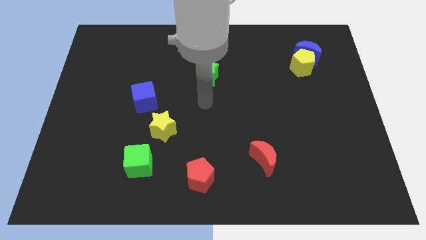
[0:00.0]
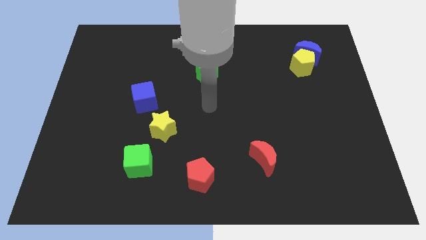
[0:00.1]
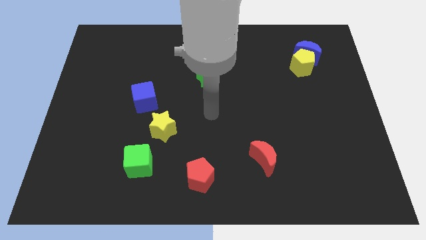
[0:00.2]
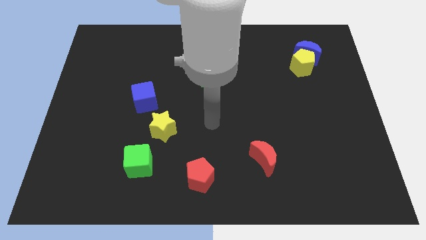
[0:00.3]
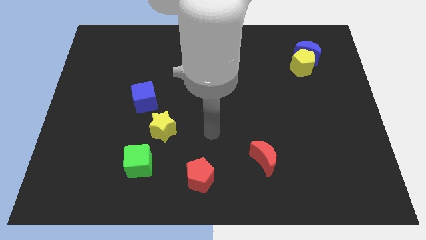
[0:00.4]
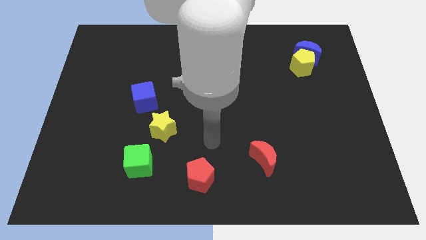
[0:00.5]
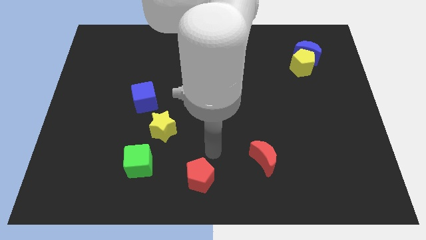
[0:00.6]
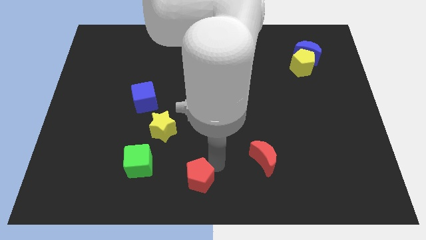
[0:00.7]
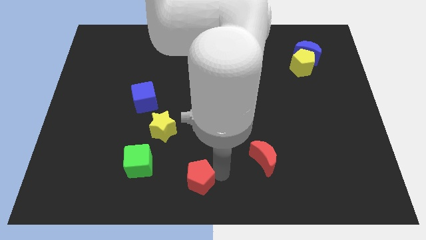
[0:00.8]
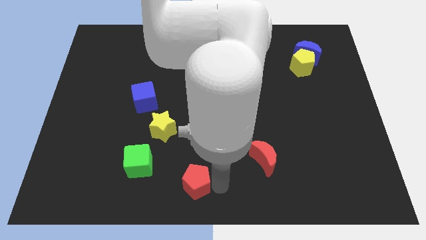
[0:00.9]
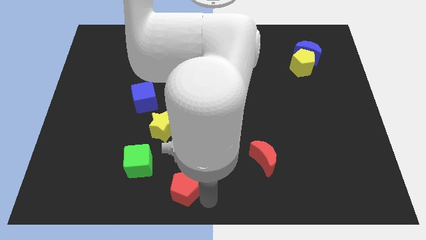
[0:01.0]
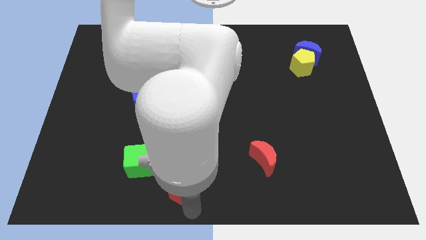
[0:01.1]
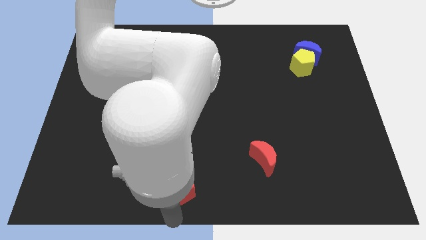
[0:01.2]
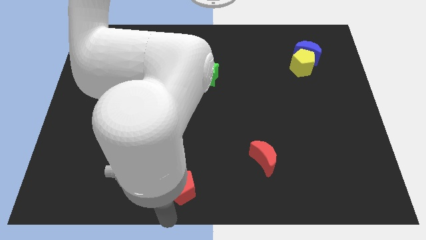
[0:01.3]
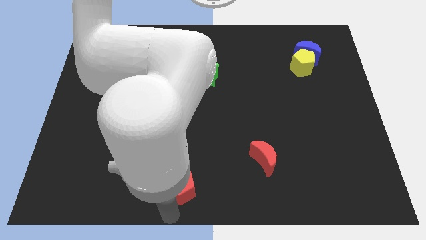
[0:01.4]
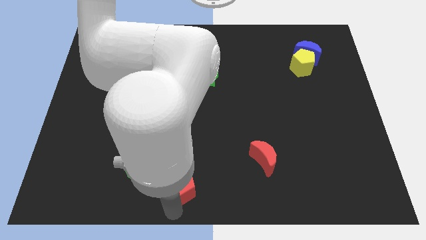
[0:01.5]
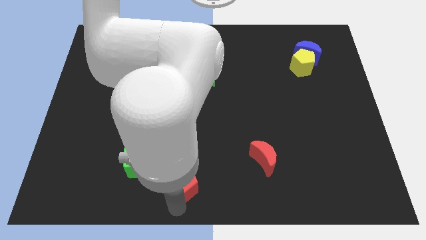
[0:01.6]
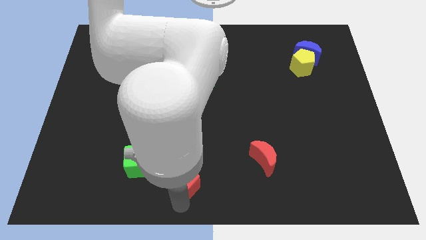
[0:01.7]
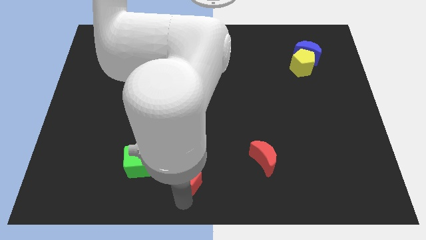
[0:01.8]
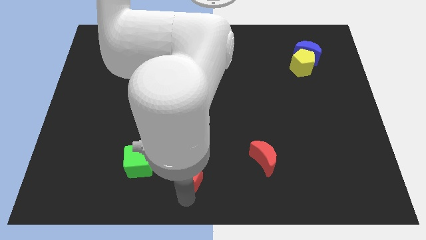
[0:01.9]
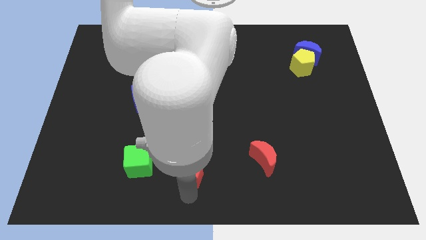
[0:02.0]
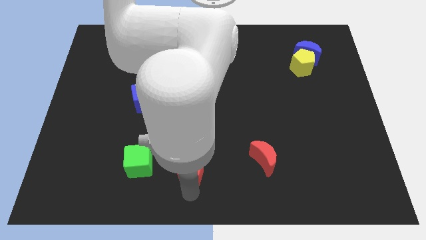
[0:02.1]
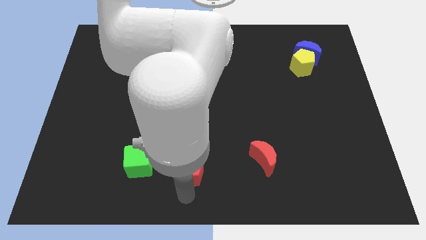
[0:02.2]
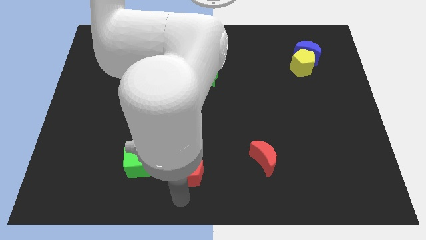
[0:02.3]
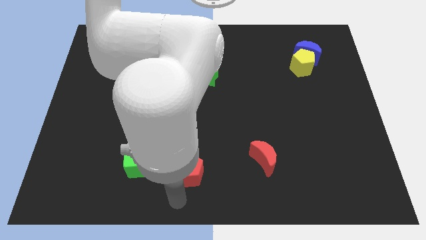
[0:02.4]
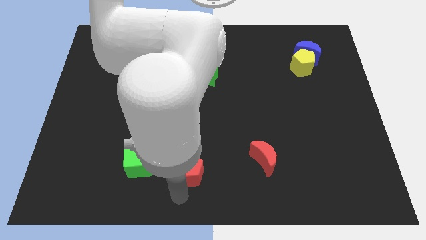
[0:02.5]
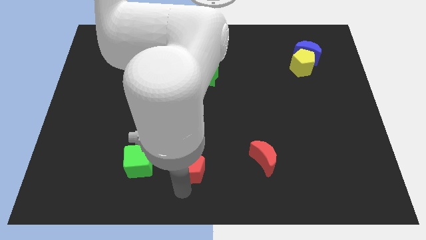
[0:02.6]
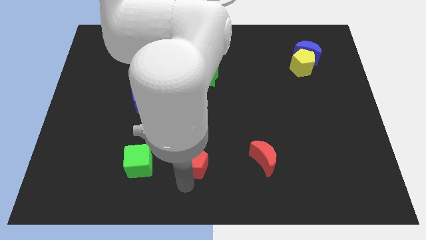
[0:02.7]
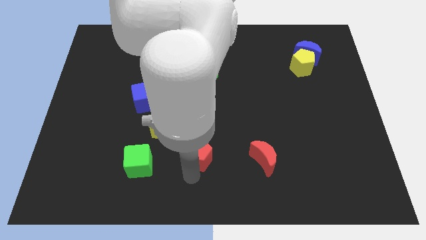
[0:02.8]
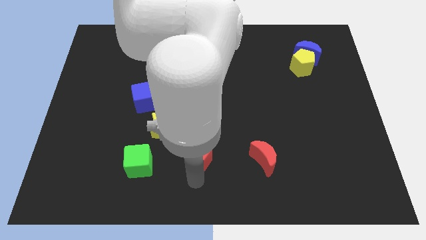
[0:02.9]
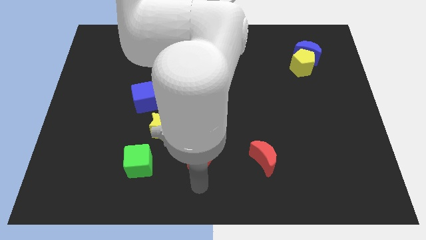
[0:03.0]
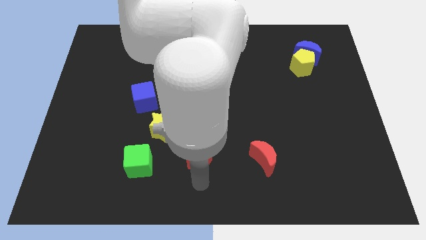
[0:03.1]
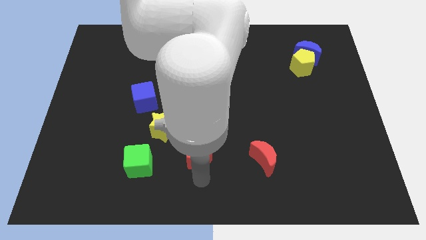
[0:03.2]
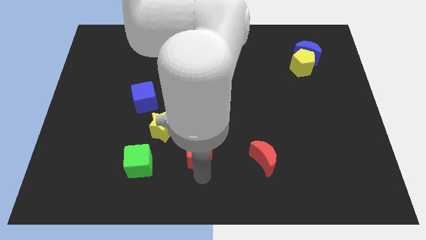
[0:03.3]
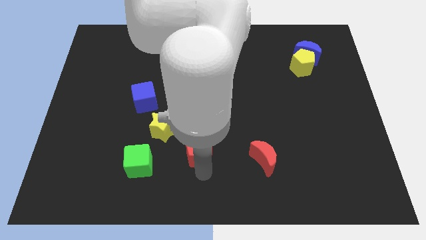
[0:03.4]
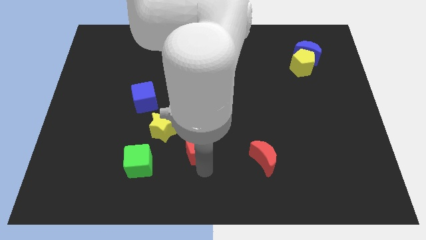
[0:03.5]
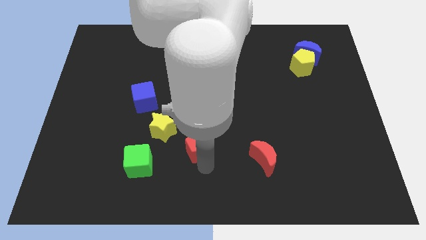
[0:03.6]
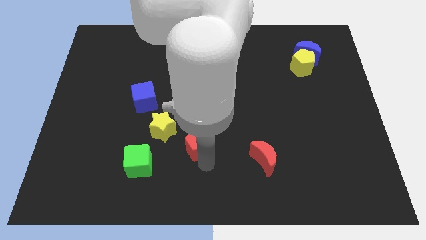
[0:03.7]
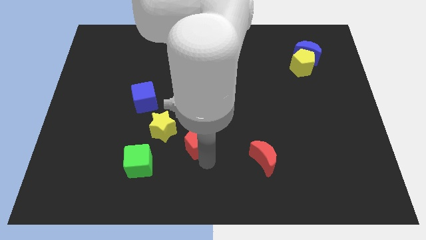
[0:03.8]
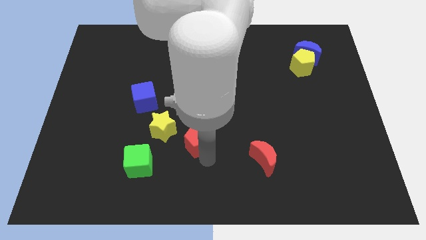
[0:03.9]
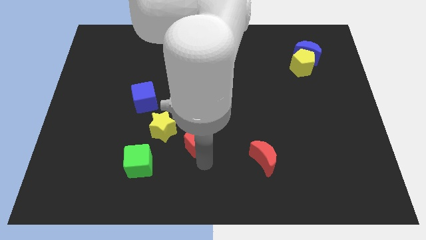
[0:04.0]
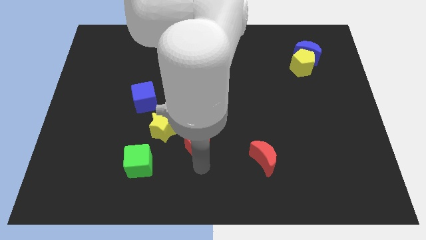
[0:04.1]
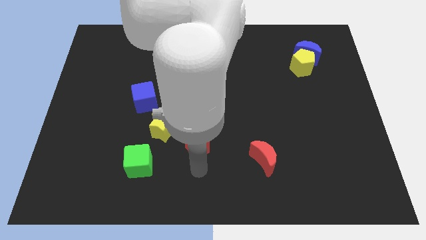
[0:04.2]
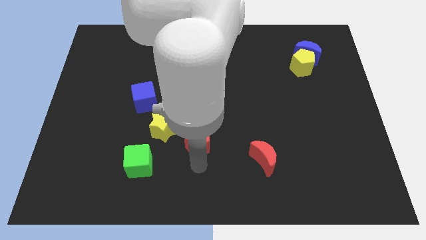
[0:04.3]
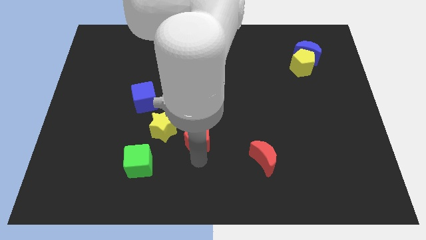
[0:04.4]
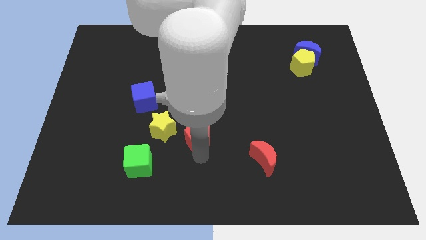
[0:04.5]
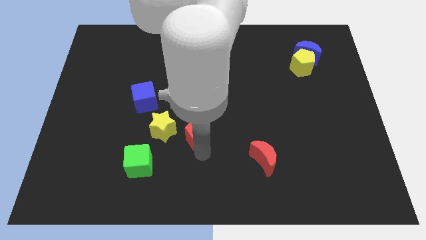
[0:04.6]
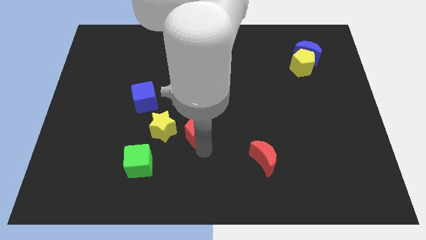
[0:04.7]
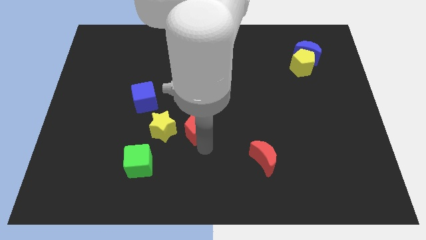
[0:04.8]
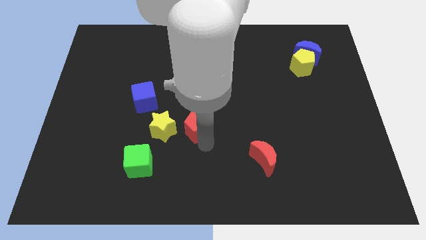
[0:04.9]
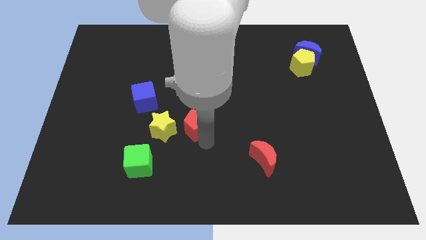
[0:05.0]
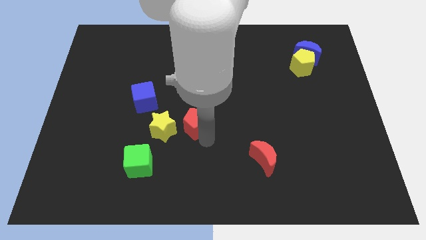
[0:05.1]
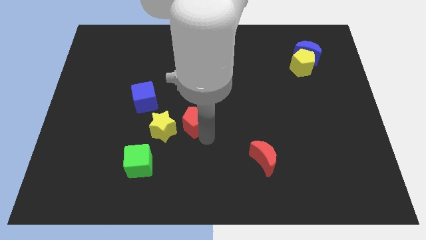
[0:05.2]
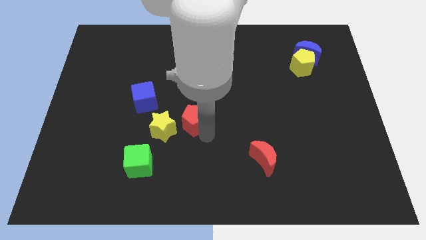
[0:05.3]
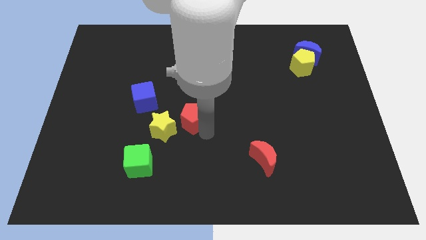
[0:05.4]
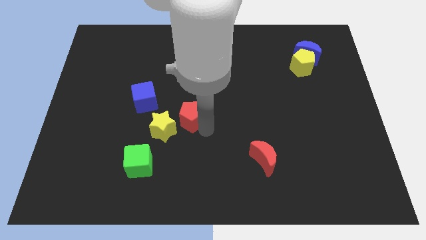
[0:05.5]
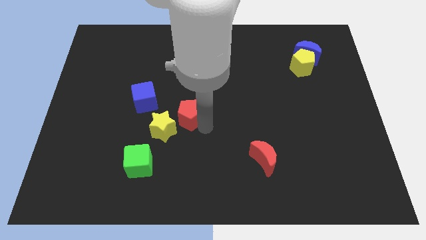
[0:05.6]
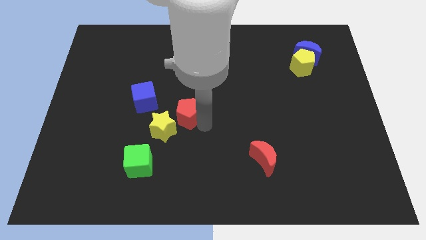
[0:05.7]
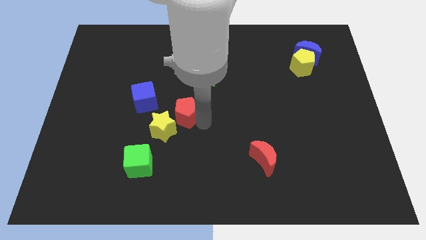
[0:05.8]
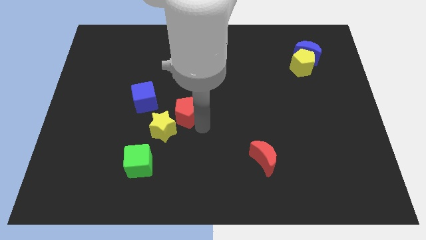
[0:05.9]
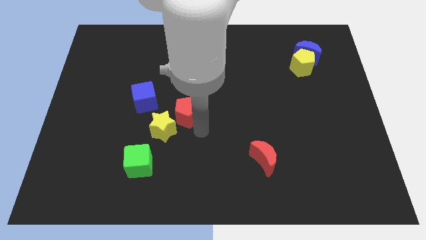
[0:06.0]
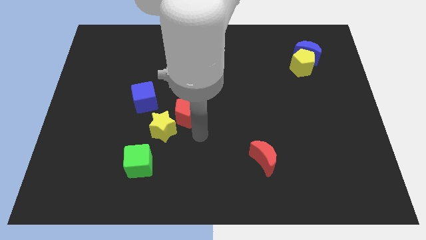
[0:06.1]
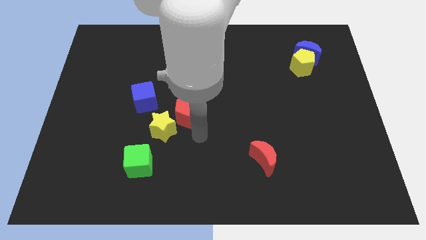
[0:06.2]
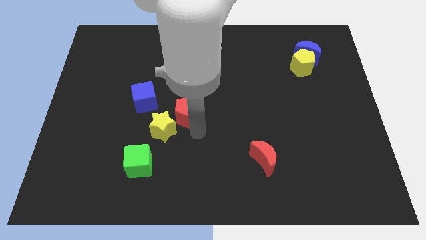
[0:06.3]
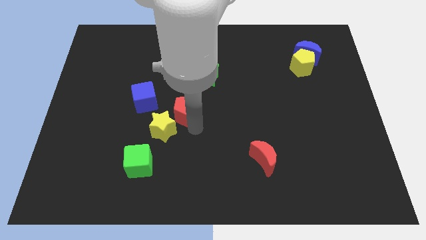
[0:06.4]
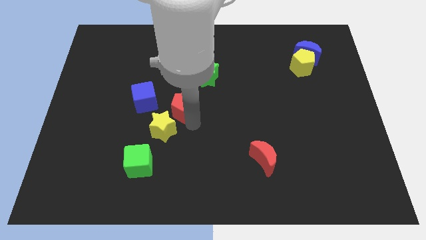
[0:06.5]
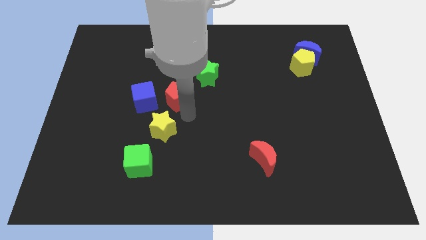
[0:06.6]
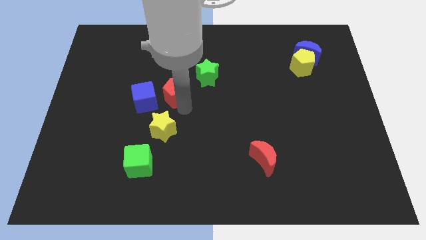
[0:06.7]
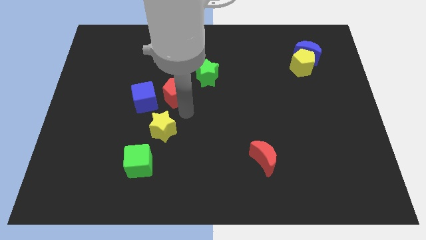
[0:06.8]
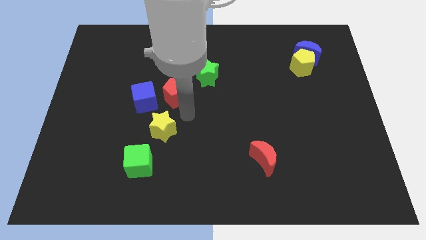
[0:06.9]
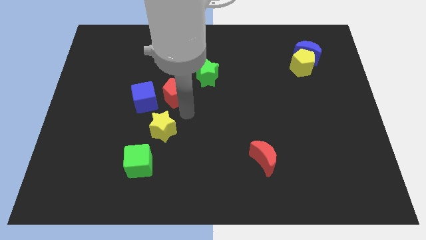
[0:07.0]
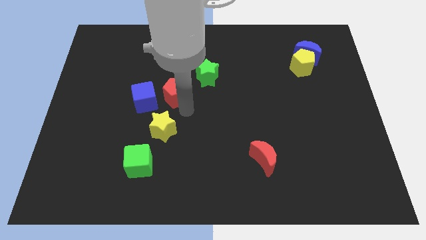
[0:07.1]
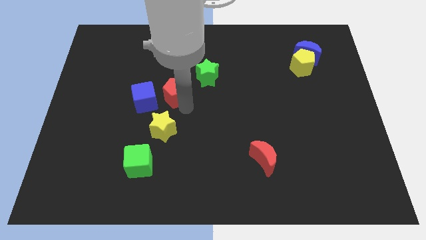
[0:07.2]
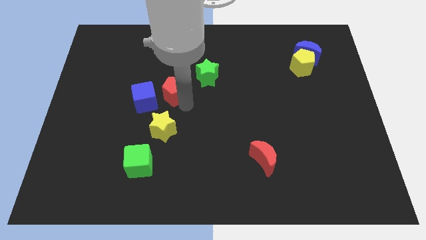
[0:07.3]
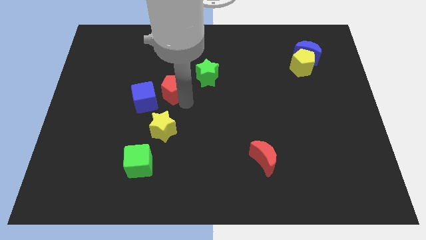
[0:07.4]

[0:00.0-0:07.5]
slide the red pentagon to the left of the green star

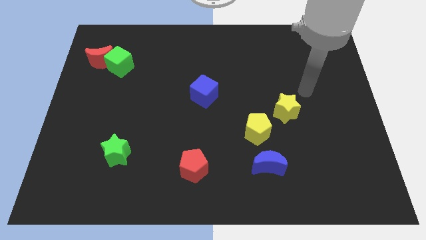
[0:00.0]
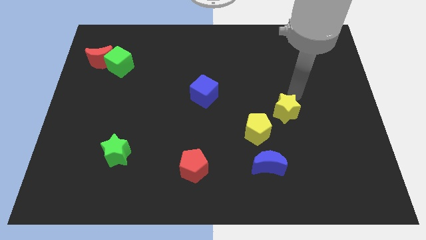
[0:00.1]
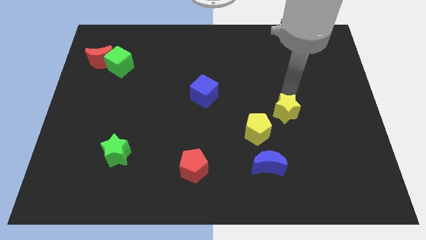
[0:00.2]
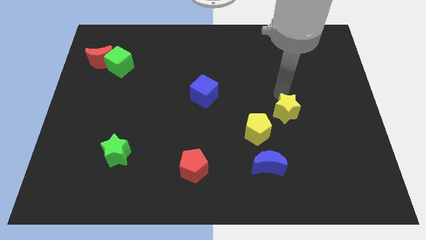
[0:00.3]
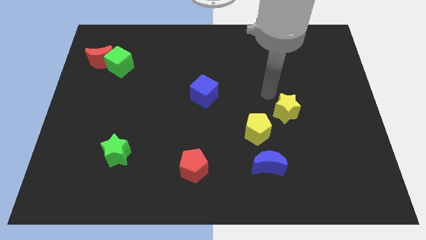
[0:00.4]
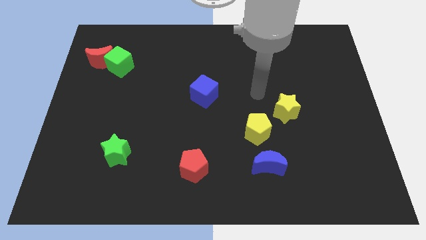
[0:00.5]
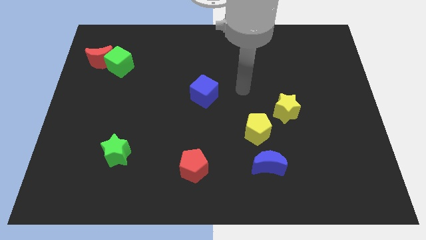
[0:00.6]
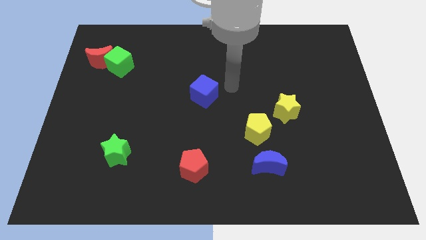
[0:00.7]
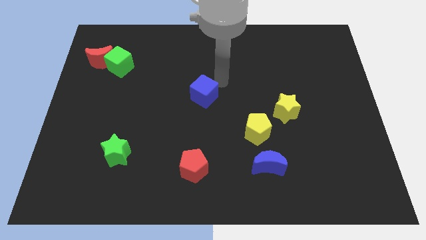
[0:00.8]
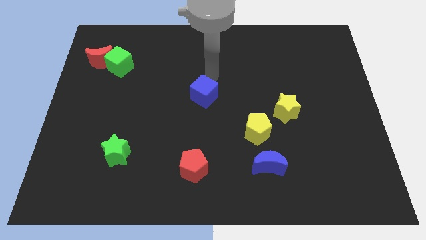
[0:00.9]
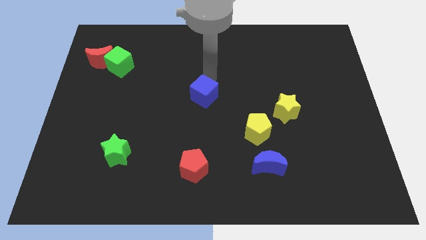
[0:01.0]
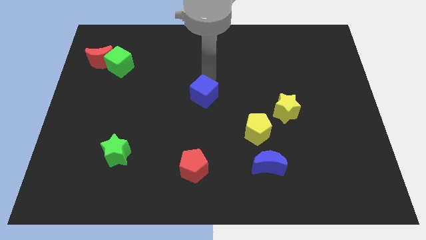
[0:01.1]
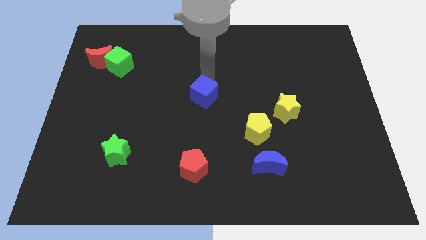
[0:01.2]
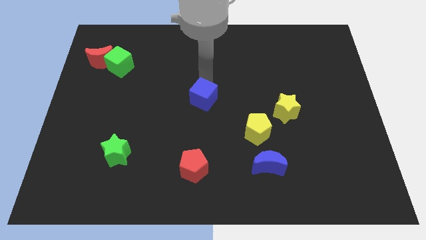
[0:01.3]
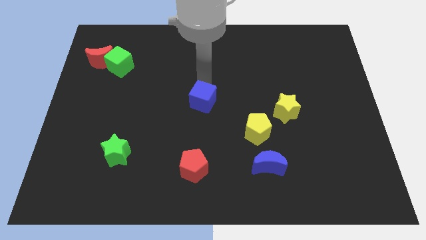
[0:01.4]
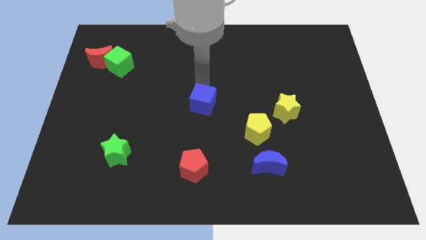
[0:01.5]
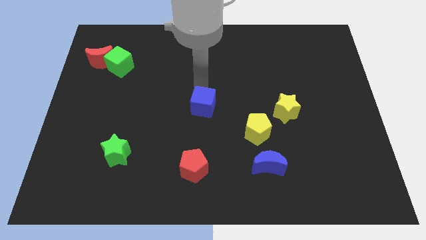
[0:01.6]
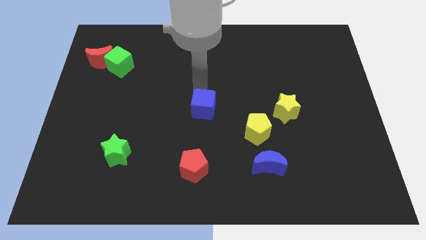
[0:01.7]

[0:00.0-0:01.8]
move the blue cube to the top of the red pentagon
